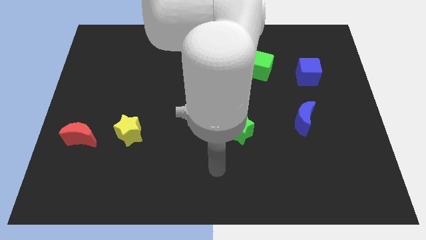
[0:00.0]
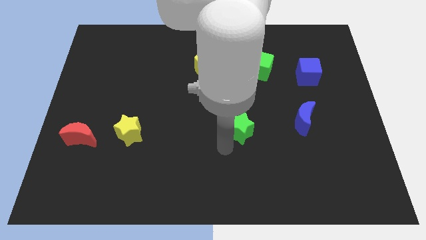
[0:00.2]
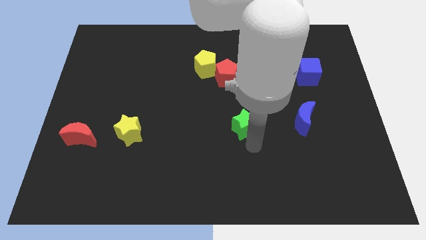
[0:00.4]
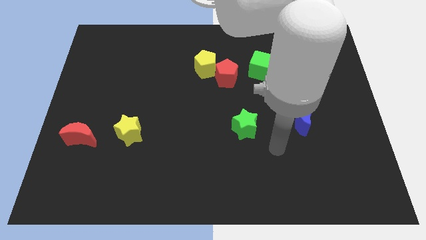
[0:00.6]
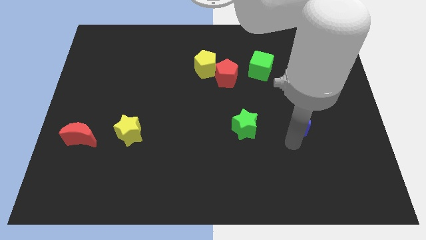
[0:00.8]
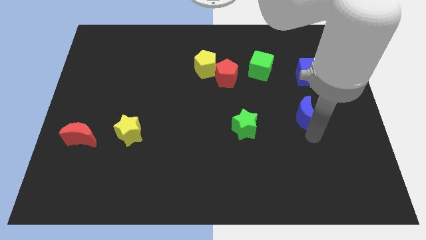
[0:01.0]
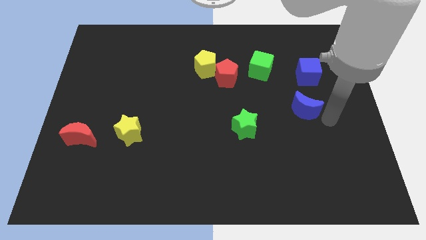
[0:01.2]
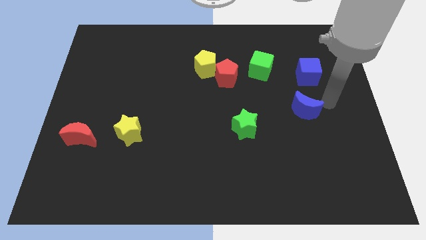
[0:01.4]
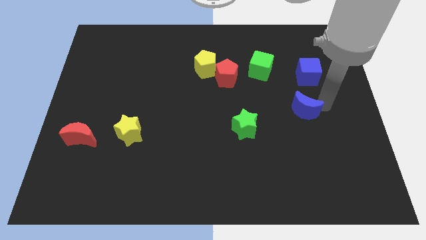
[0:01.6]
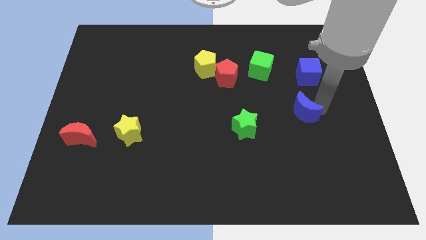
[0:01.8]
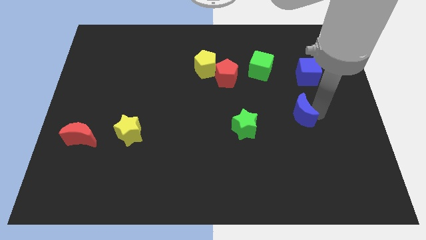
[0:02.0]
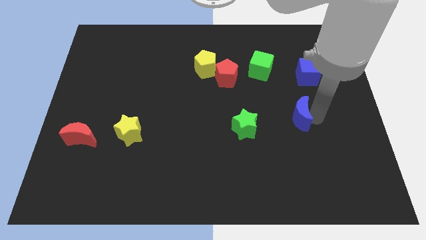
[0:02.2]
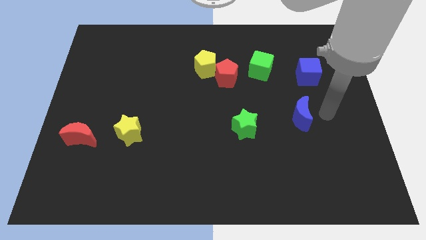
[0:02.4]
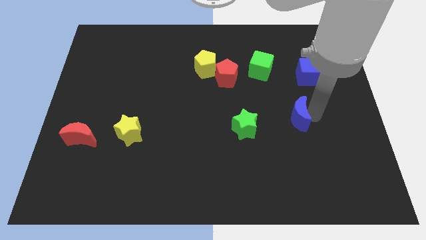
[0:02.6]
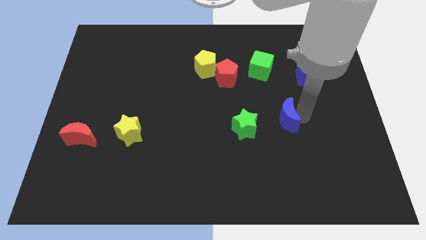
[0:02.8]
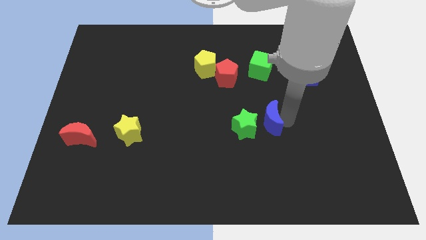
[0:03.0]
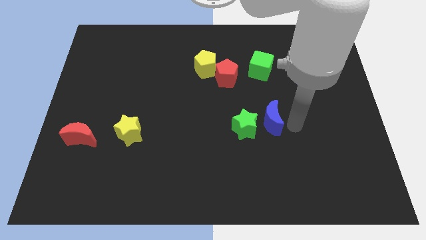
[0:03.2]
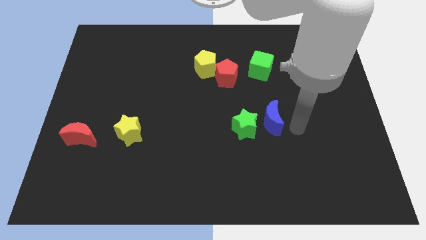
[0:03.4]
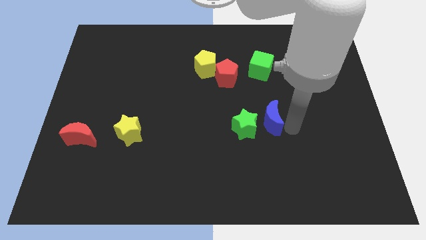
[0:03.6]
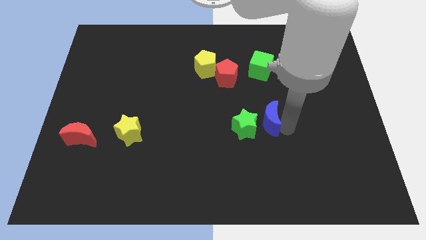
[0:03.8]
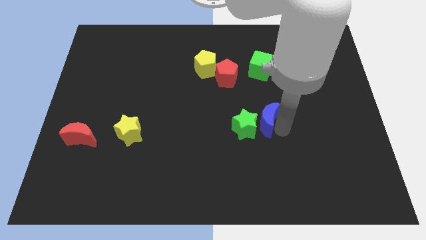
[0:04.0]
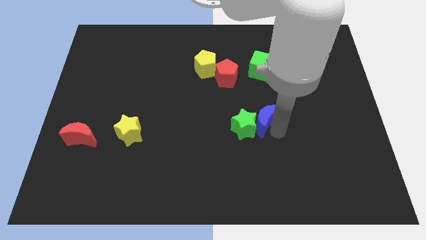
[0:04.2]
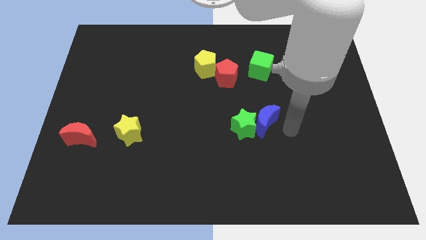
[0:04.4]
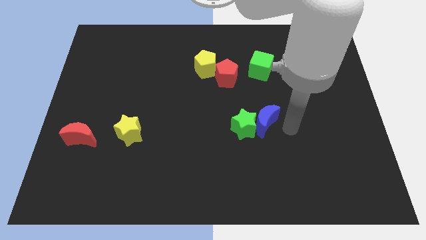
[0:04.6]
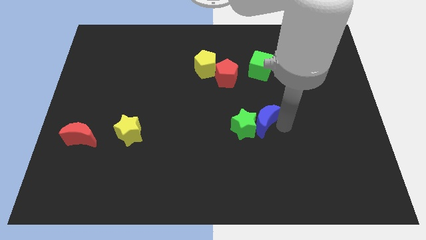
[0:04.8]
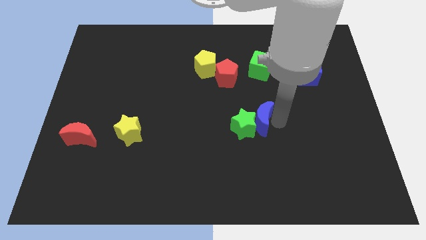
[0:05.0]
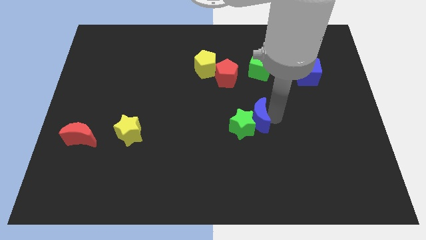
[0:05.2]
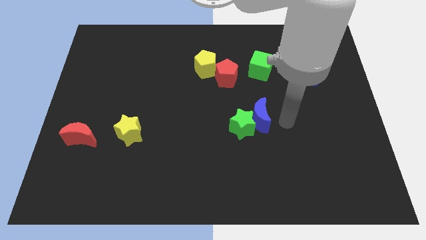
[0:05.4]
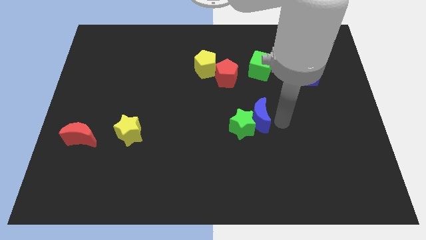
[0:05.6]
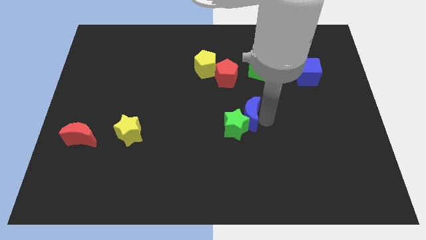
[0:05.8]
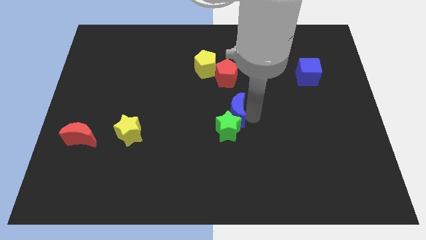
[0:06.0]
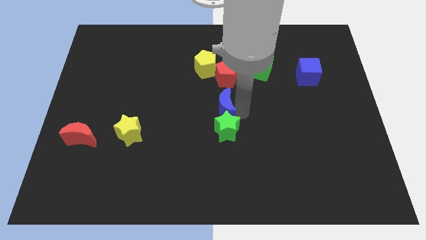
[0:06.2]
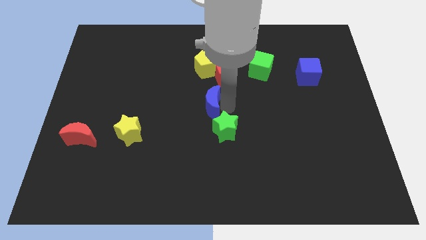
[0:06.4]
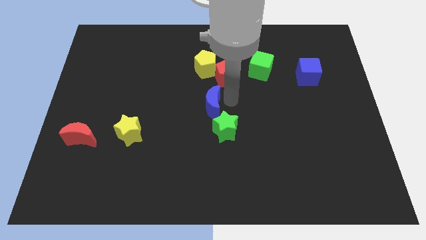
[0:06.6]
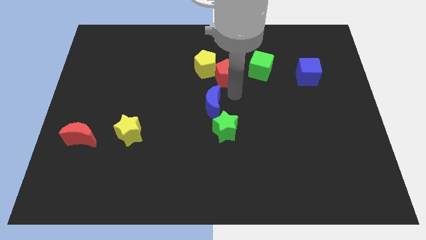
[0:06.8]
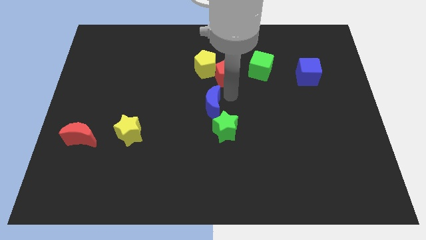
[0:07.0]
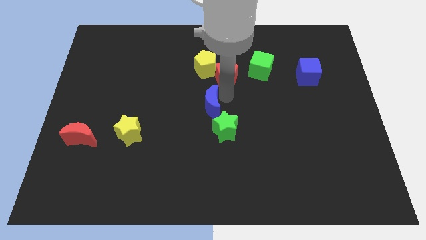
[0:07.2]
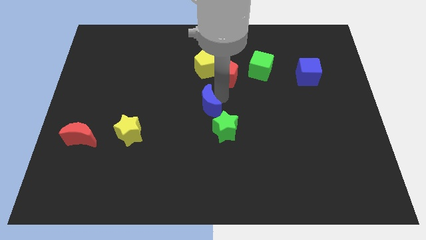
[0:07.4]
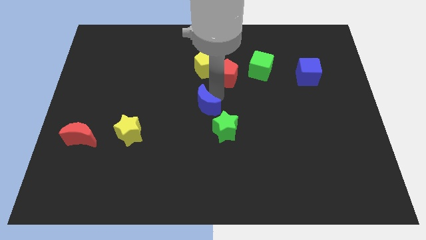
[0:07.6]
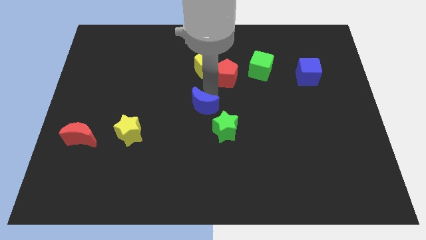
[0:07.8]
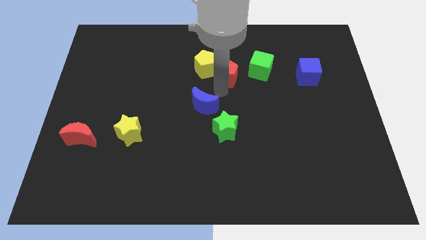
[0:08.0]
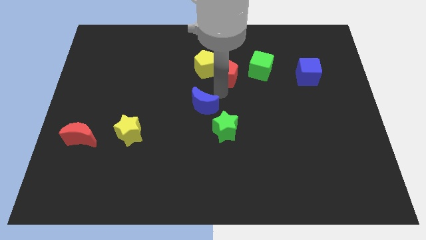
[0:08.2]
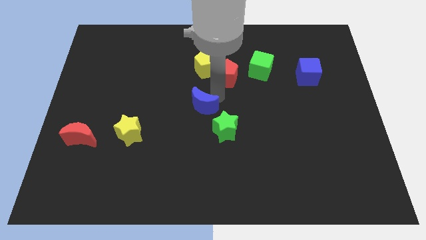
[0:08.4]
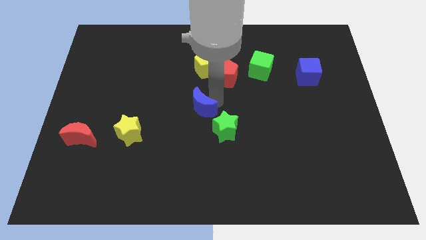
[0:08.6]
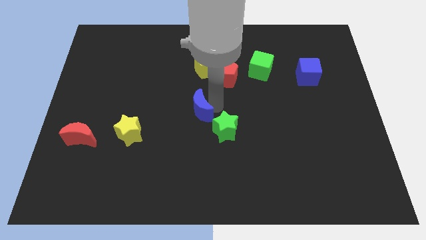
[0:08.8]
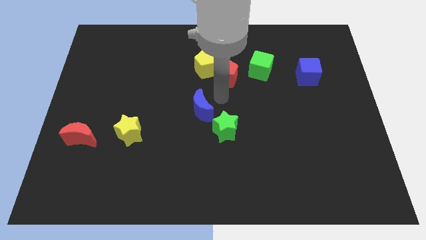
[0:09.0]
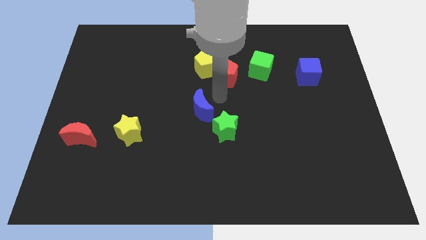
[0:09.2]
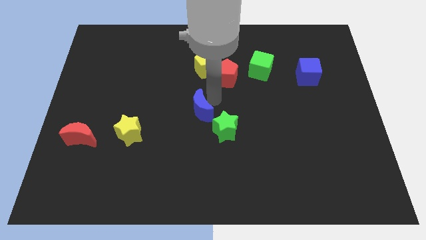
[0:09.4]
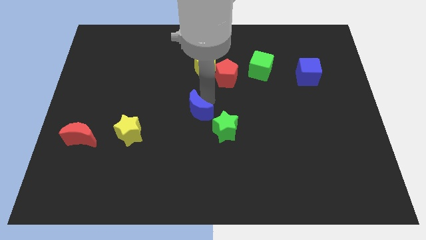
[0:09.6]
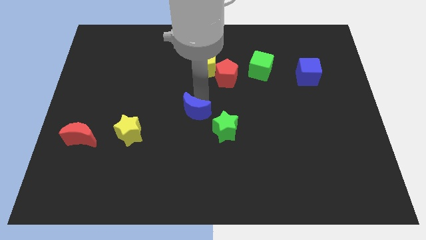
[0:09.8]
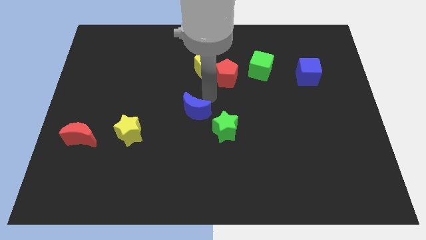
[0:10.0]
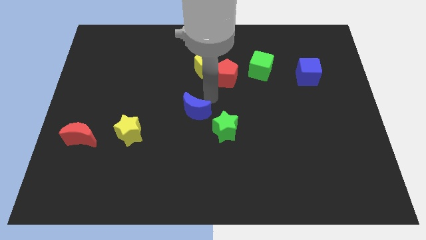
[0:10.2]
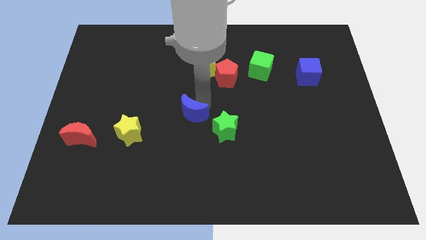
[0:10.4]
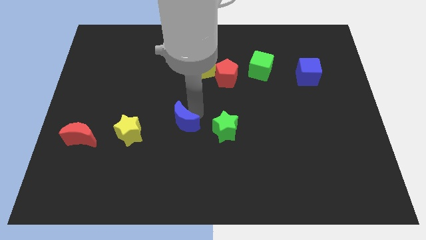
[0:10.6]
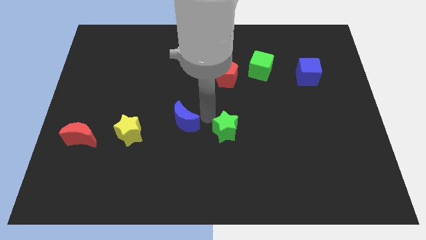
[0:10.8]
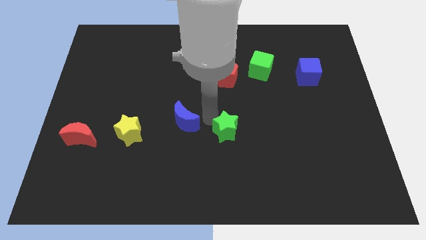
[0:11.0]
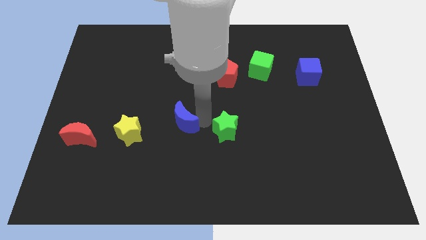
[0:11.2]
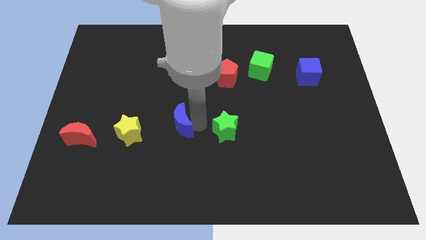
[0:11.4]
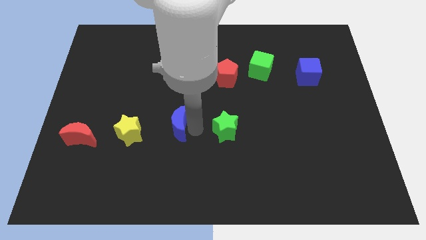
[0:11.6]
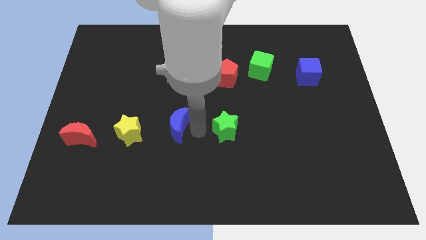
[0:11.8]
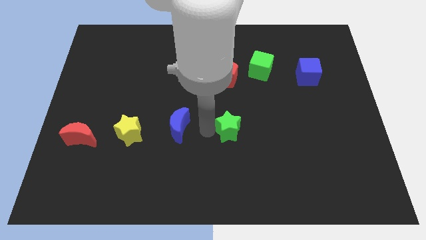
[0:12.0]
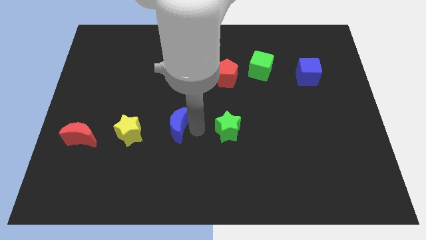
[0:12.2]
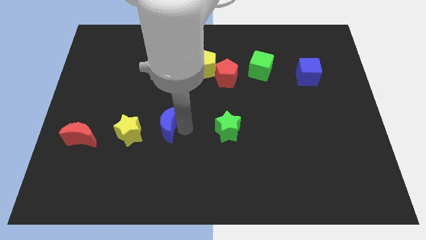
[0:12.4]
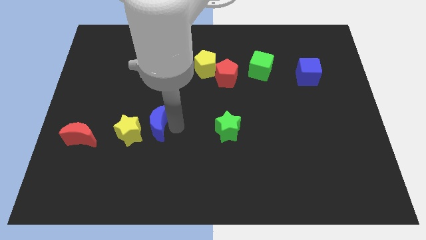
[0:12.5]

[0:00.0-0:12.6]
slide the blue moon close to the yellow star
